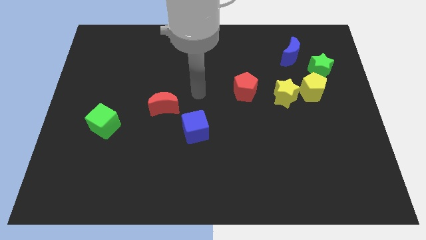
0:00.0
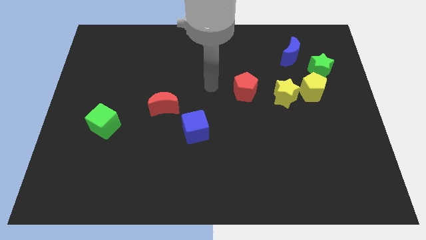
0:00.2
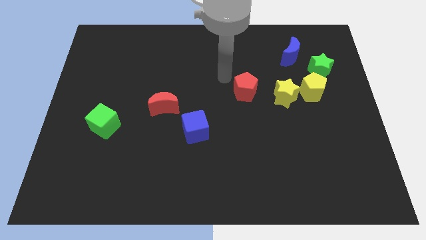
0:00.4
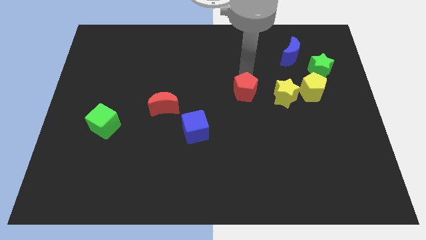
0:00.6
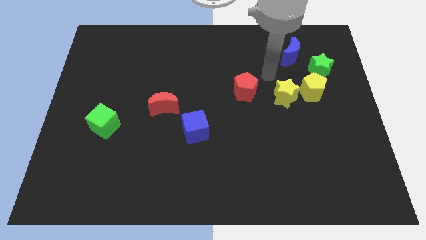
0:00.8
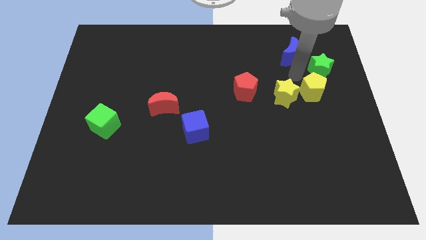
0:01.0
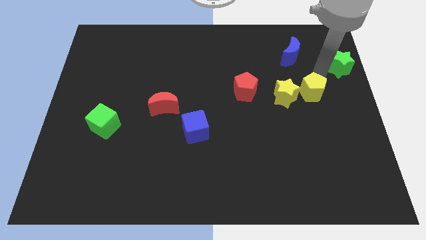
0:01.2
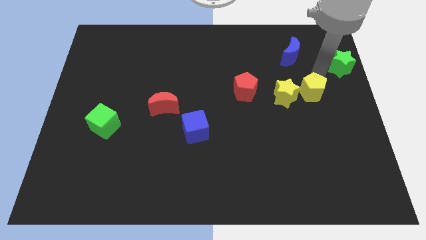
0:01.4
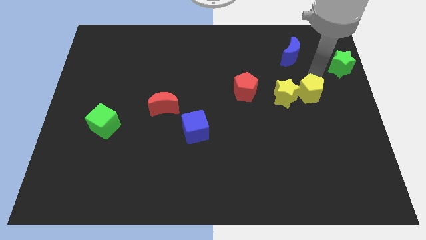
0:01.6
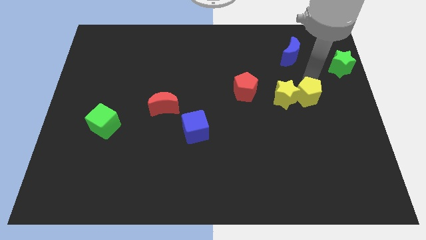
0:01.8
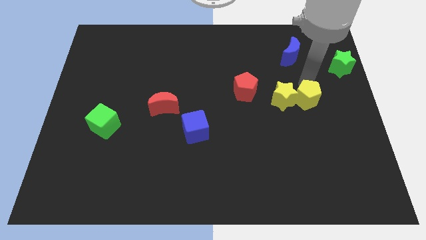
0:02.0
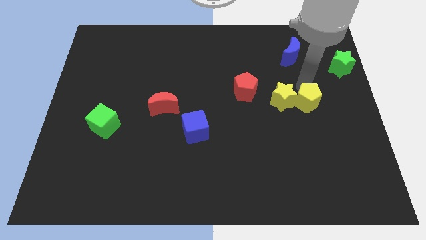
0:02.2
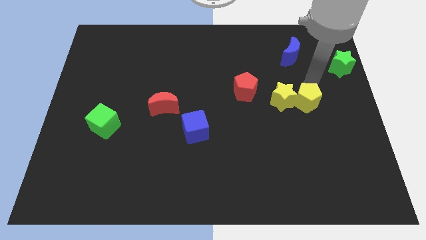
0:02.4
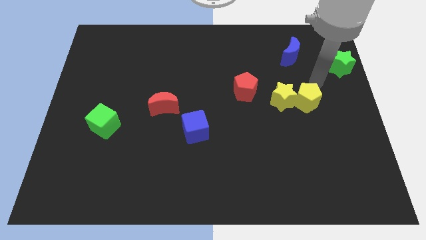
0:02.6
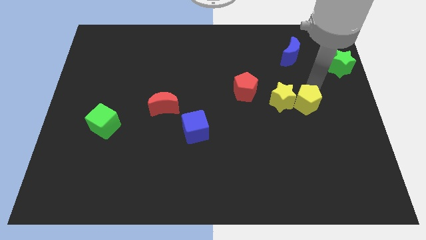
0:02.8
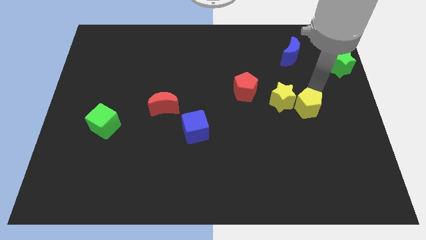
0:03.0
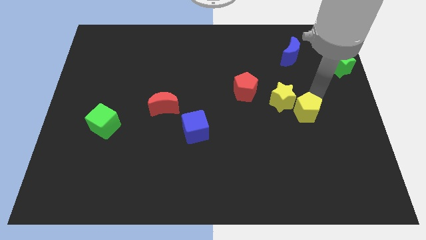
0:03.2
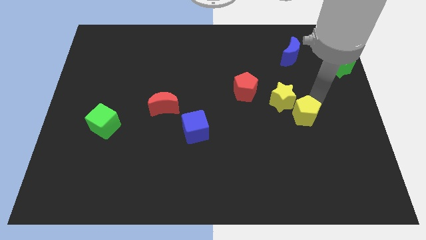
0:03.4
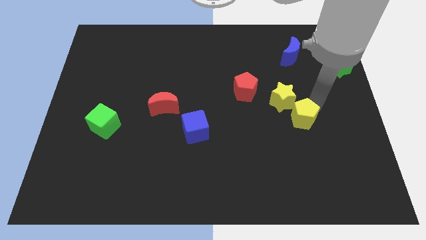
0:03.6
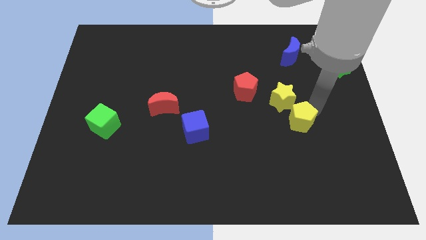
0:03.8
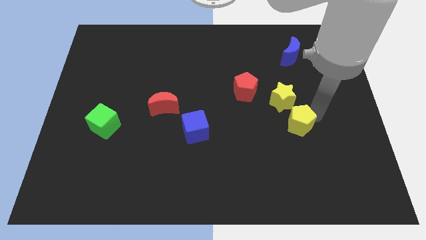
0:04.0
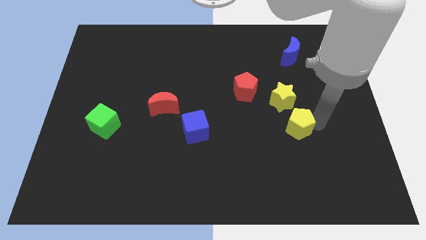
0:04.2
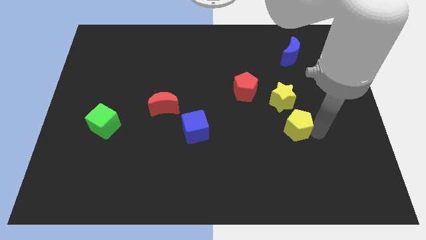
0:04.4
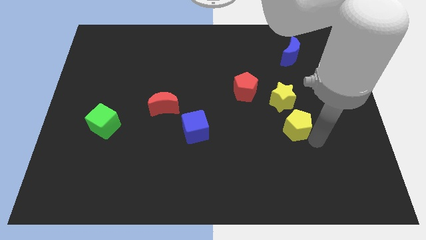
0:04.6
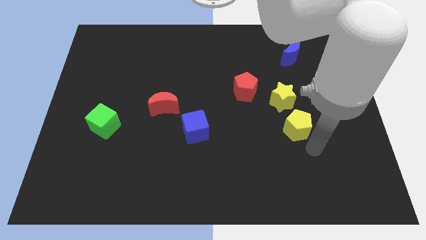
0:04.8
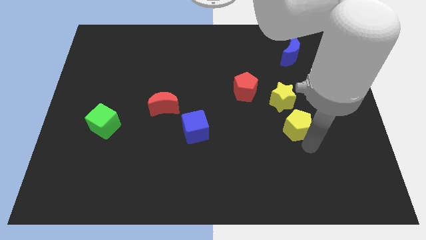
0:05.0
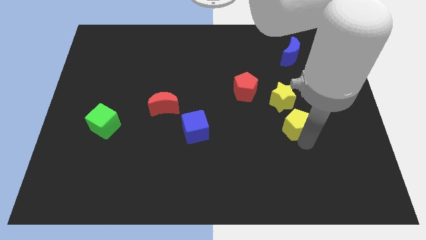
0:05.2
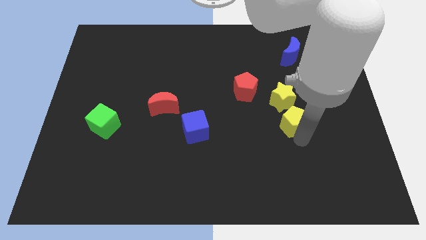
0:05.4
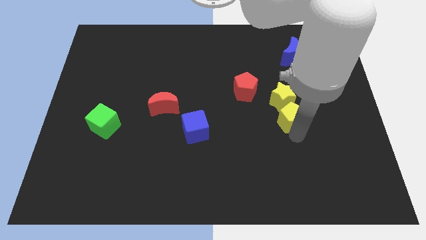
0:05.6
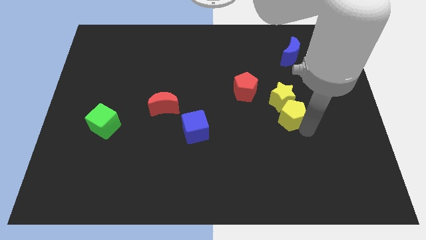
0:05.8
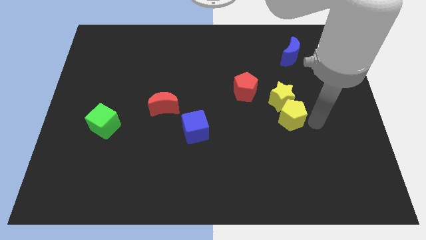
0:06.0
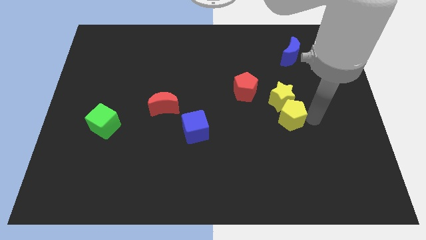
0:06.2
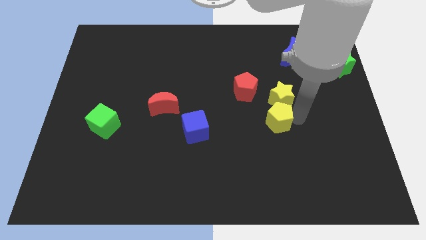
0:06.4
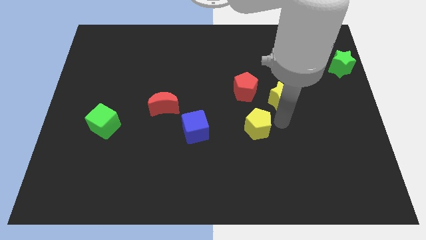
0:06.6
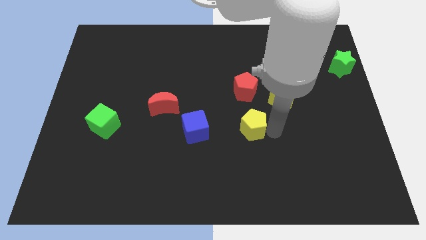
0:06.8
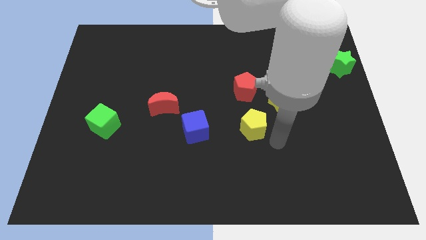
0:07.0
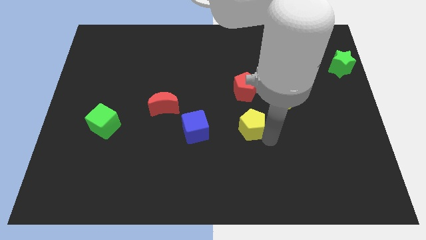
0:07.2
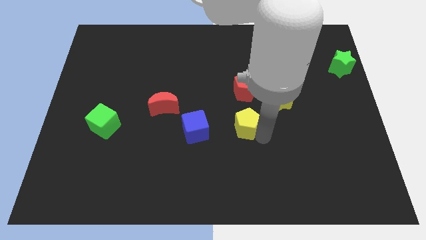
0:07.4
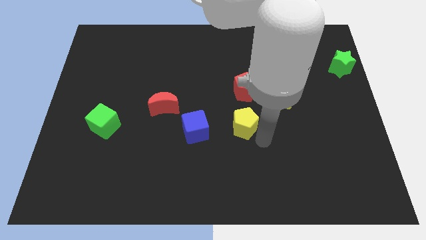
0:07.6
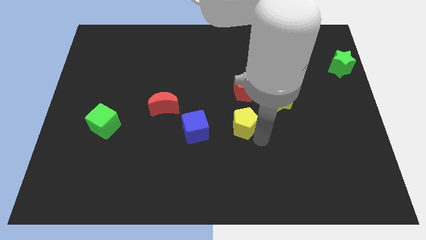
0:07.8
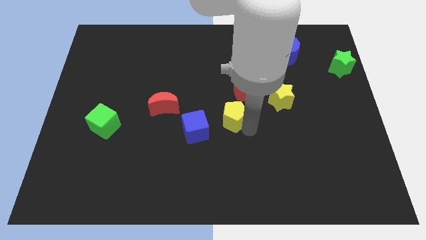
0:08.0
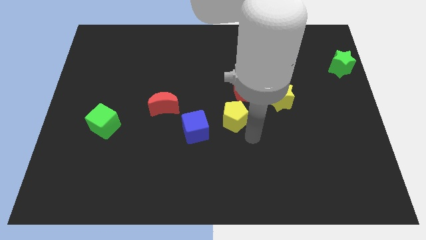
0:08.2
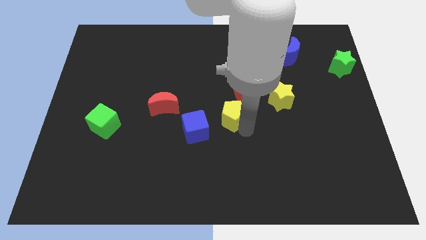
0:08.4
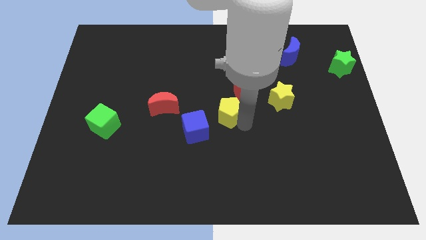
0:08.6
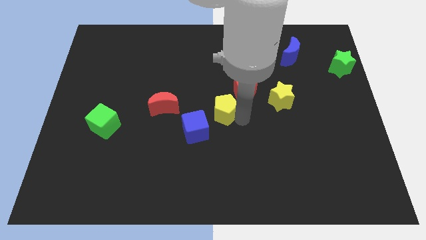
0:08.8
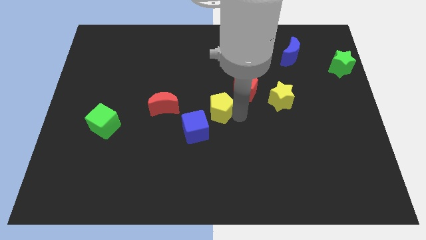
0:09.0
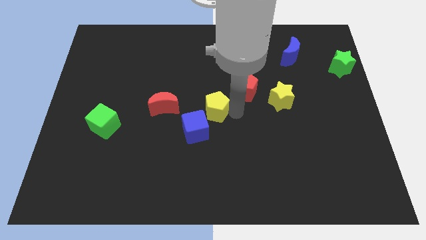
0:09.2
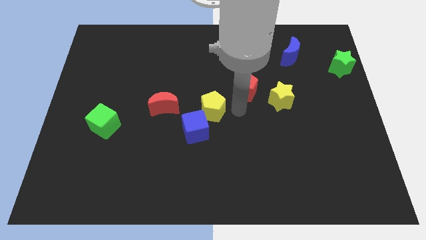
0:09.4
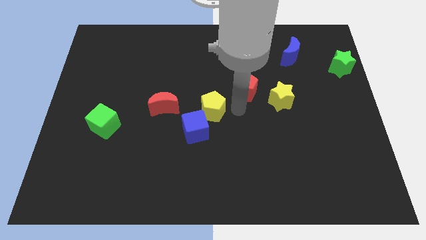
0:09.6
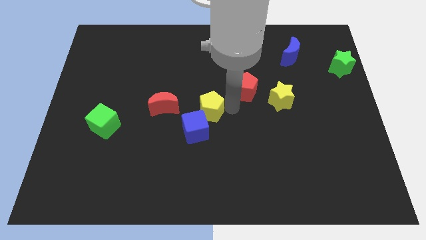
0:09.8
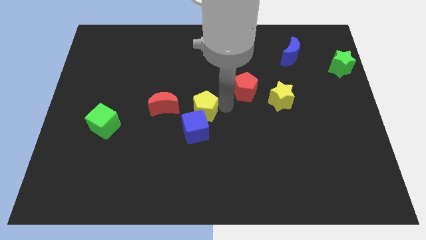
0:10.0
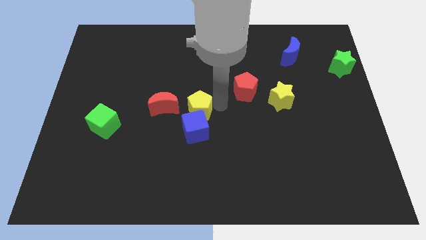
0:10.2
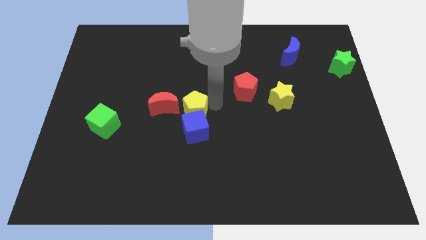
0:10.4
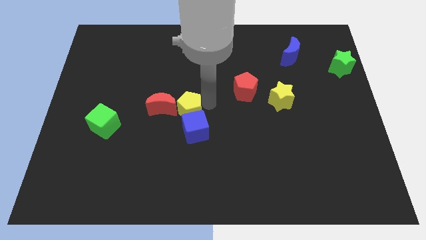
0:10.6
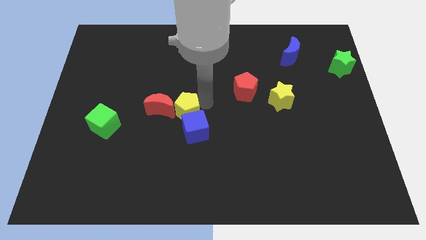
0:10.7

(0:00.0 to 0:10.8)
move the yellow pentagon to the red moon

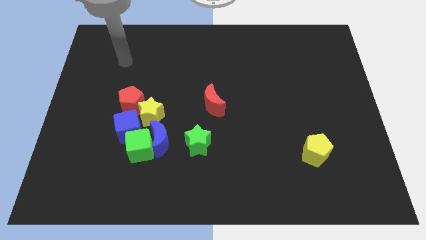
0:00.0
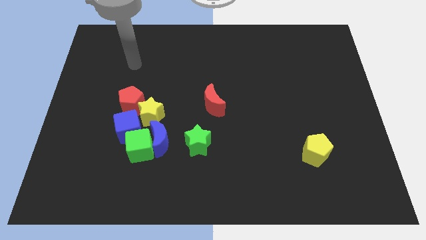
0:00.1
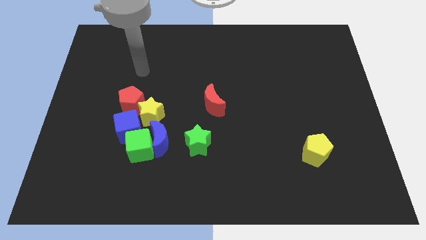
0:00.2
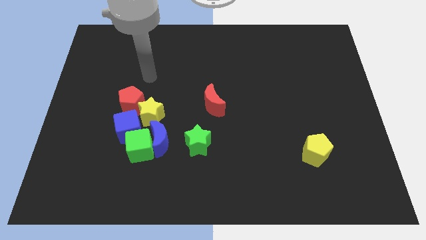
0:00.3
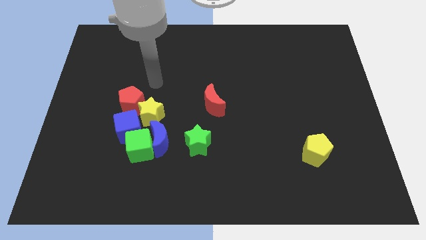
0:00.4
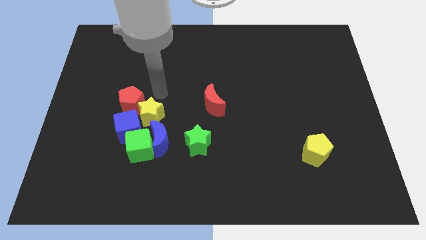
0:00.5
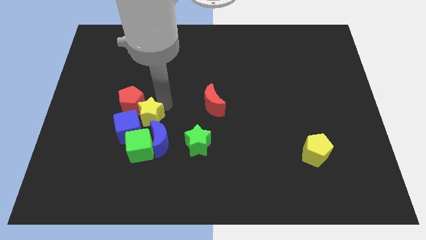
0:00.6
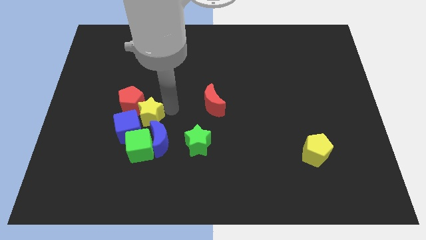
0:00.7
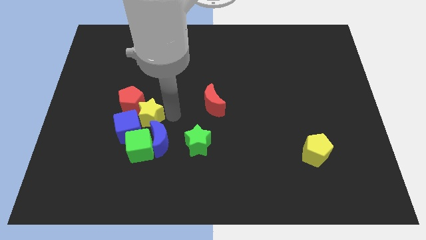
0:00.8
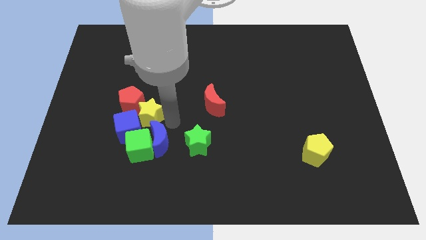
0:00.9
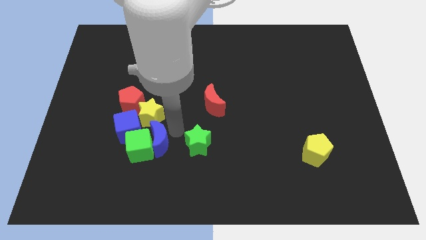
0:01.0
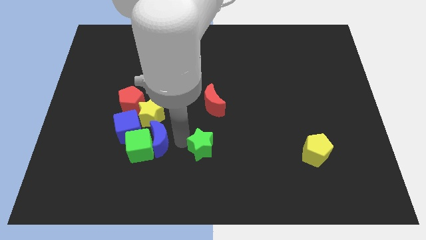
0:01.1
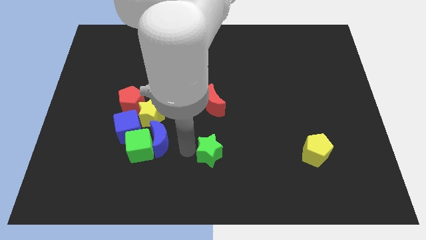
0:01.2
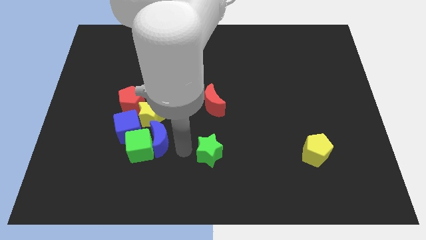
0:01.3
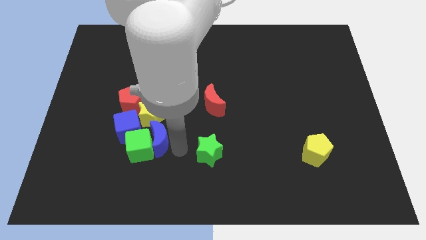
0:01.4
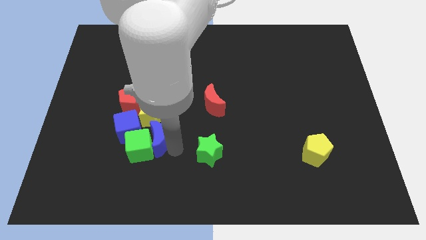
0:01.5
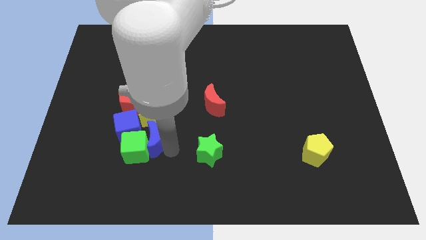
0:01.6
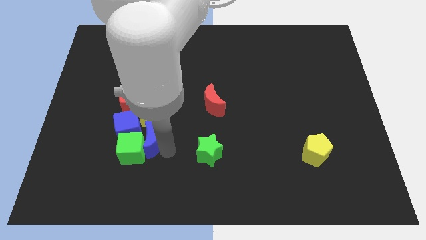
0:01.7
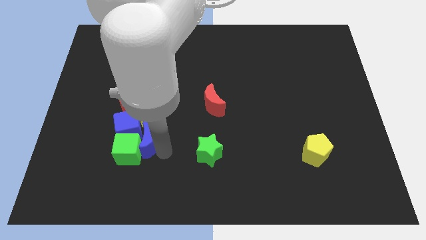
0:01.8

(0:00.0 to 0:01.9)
slide the blue moon next to the blue cube
